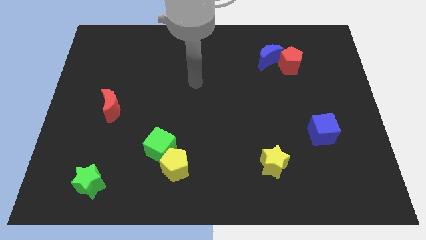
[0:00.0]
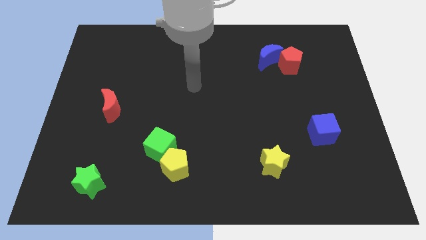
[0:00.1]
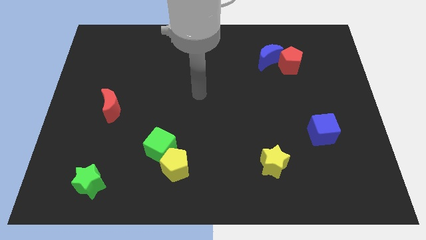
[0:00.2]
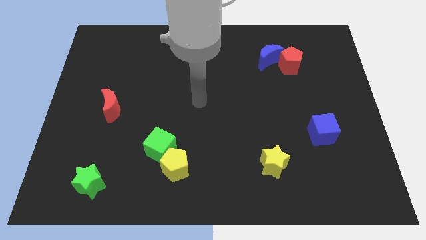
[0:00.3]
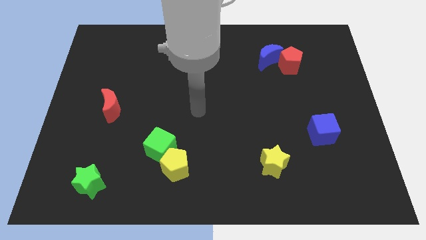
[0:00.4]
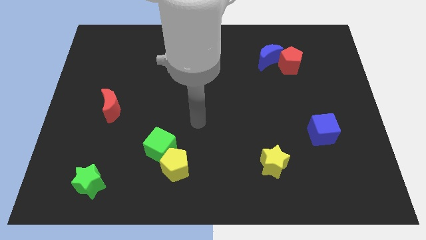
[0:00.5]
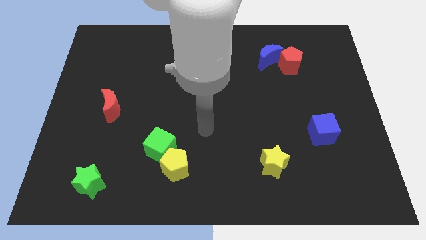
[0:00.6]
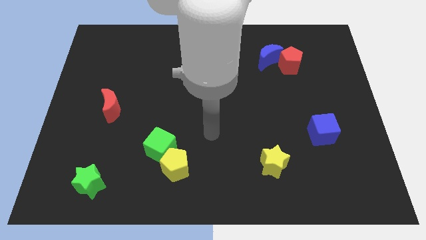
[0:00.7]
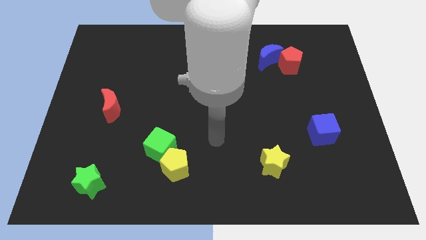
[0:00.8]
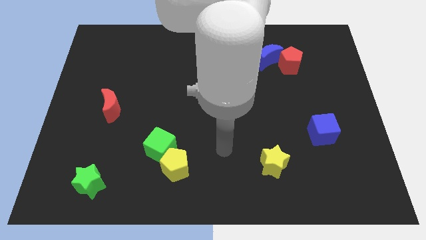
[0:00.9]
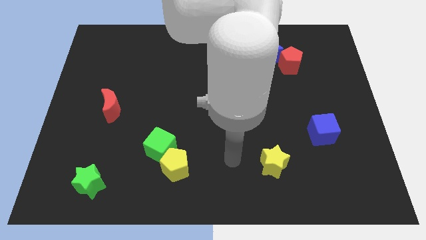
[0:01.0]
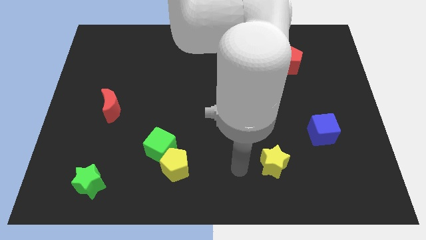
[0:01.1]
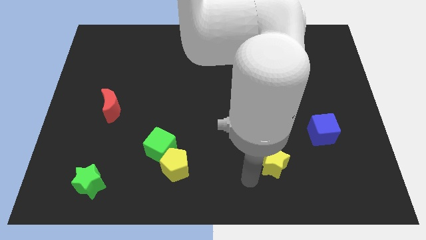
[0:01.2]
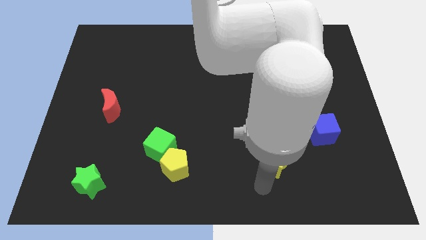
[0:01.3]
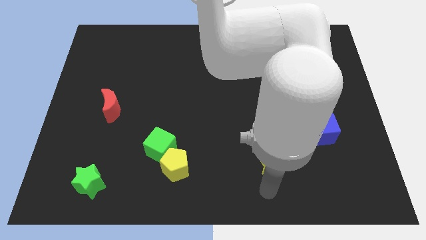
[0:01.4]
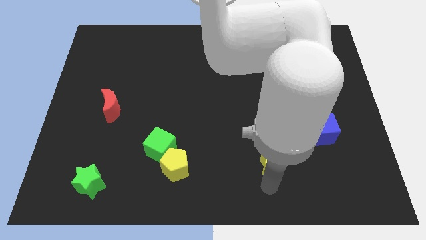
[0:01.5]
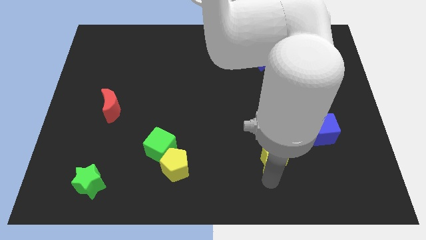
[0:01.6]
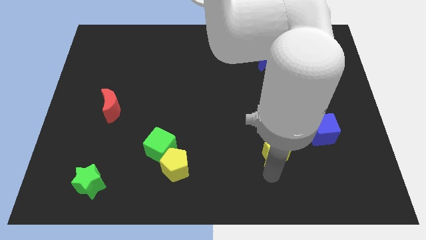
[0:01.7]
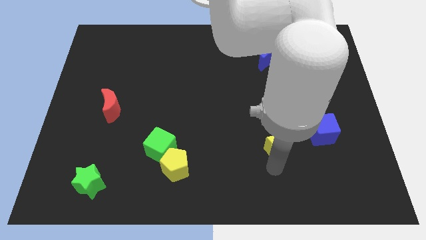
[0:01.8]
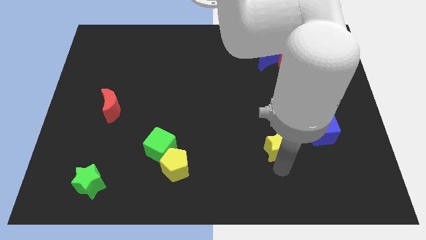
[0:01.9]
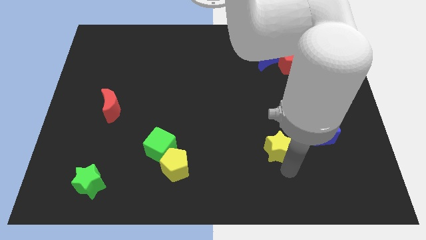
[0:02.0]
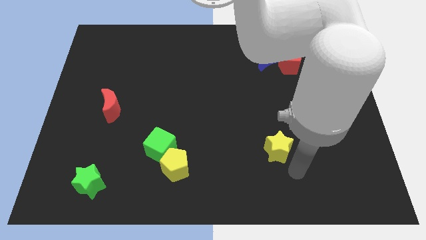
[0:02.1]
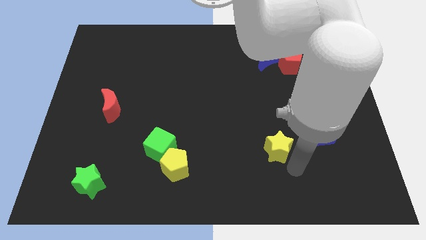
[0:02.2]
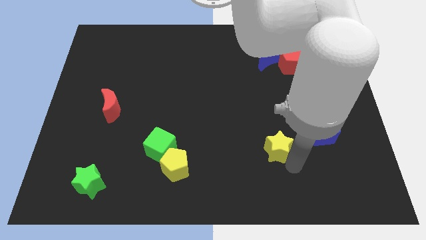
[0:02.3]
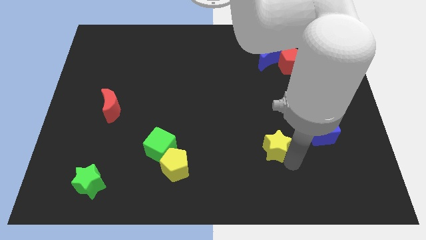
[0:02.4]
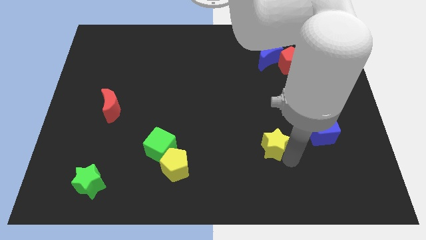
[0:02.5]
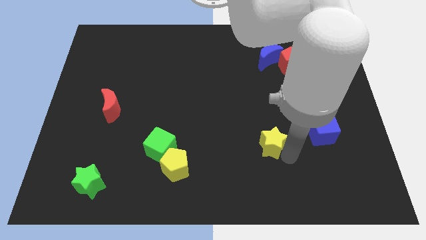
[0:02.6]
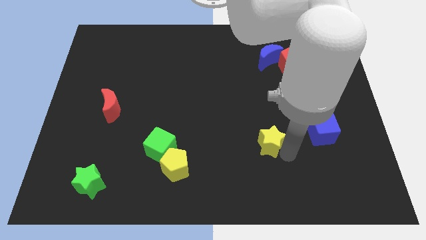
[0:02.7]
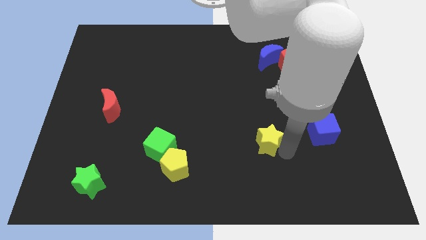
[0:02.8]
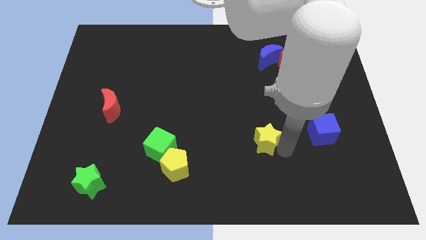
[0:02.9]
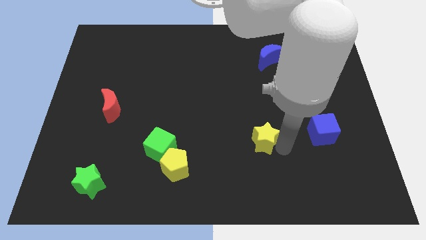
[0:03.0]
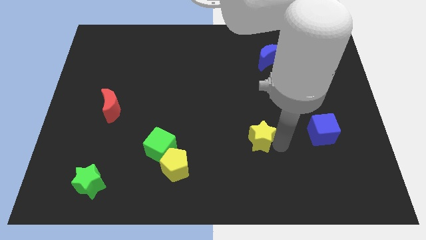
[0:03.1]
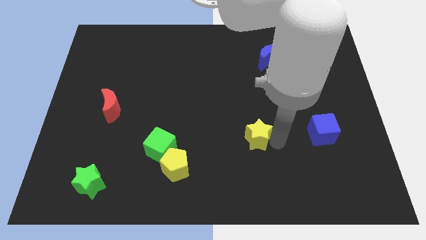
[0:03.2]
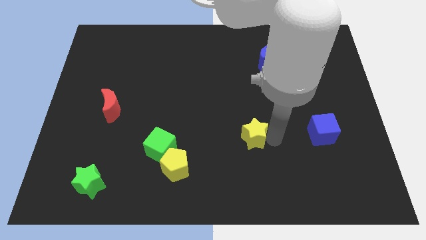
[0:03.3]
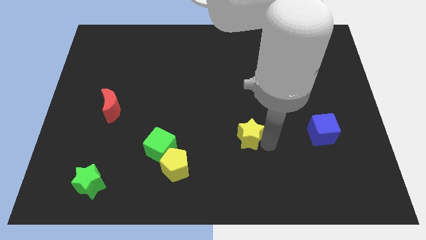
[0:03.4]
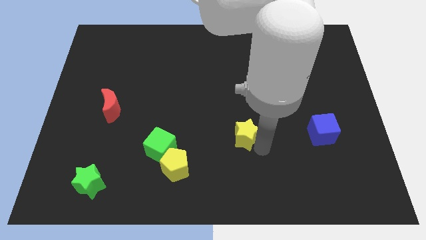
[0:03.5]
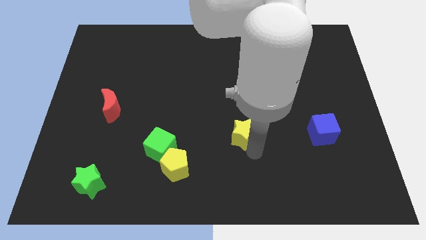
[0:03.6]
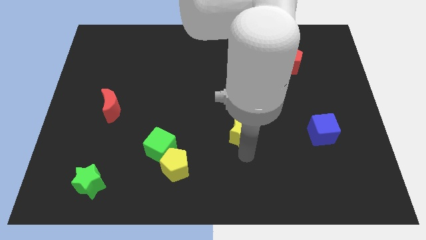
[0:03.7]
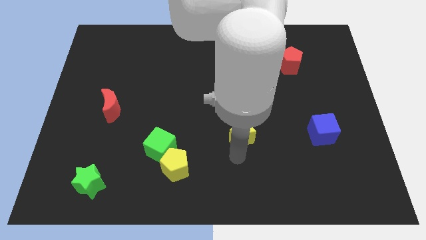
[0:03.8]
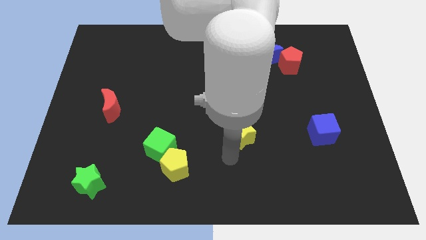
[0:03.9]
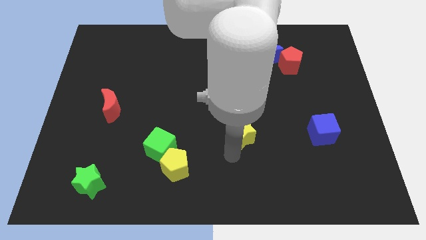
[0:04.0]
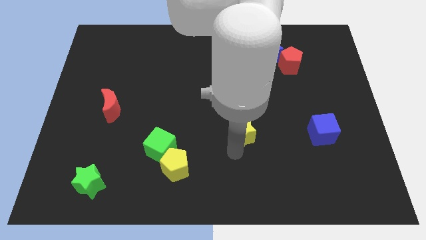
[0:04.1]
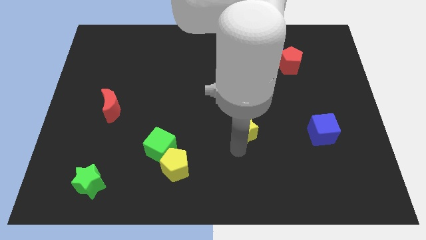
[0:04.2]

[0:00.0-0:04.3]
move the yellow star upwards somewhat

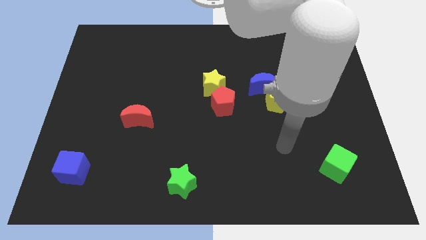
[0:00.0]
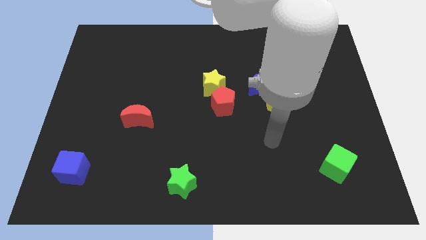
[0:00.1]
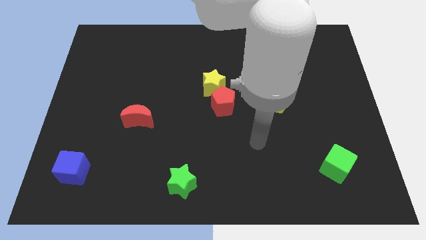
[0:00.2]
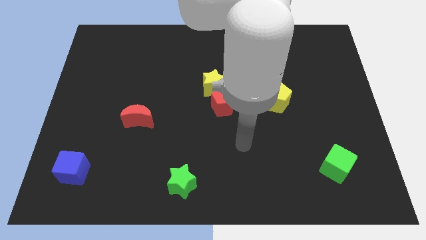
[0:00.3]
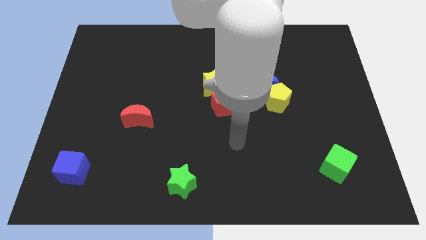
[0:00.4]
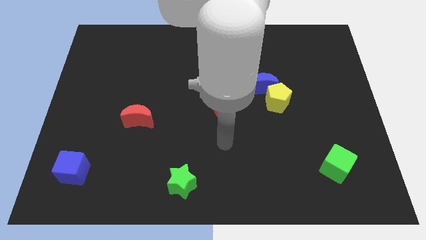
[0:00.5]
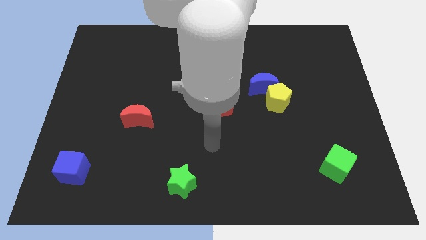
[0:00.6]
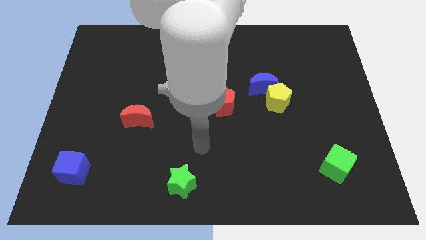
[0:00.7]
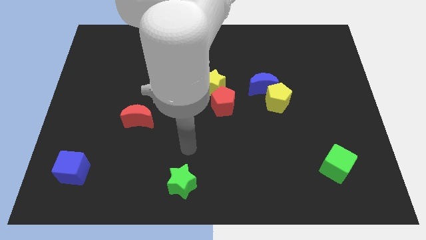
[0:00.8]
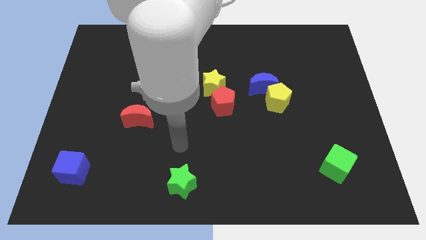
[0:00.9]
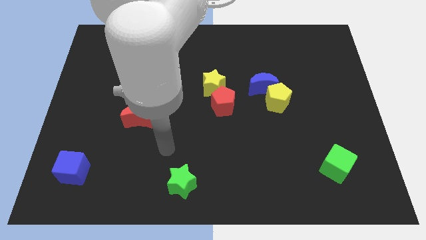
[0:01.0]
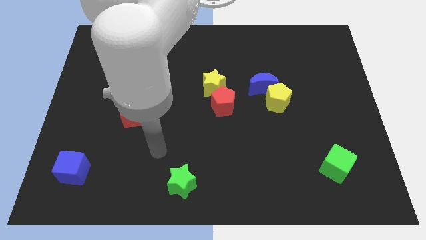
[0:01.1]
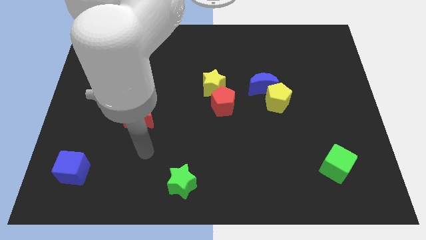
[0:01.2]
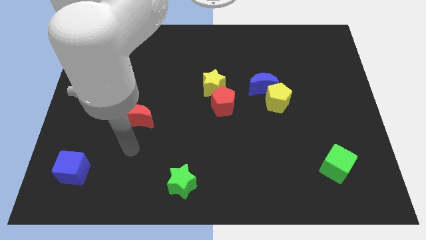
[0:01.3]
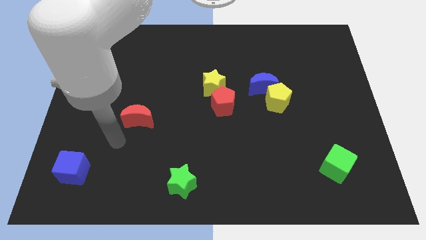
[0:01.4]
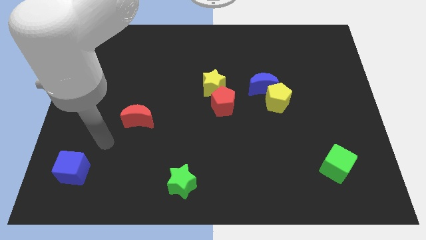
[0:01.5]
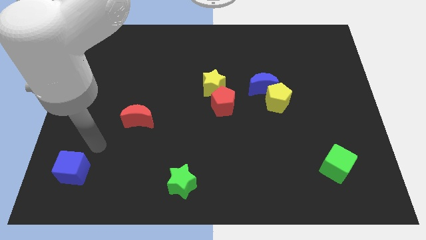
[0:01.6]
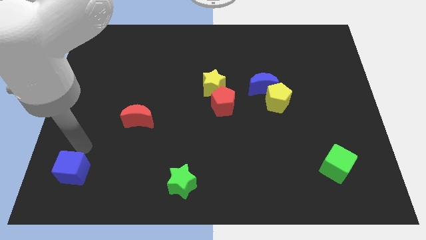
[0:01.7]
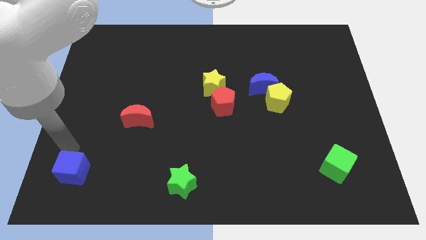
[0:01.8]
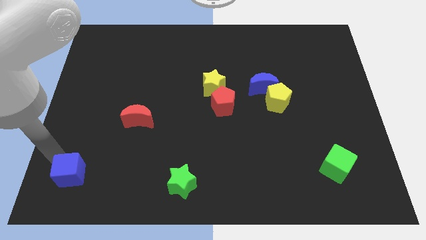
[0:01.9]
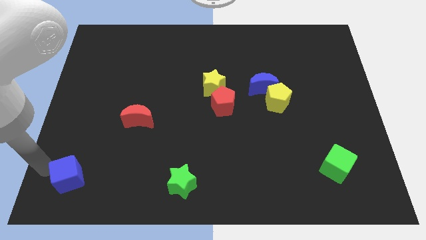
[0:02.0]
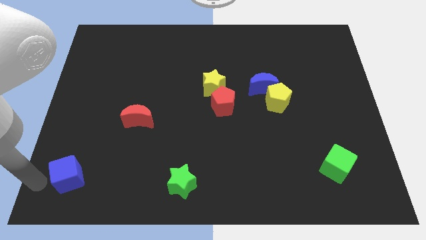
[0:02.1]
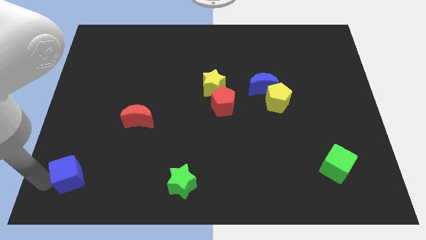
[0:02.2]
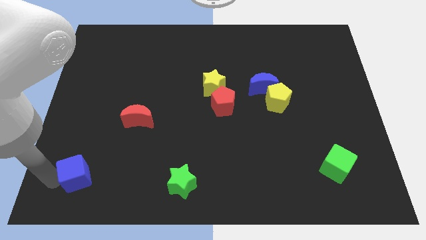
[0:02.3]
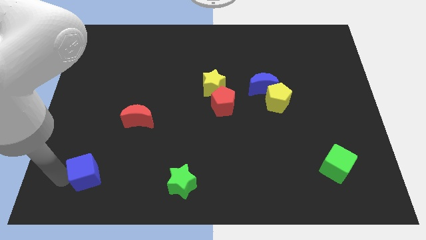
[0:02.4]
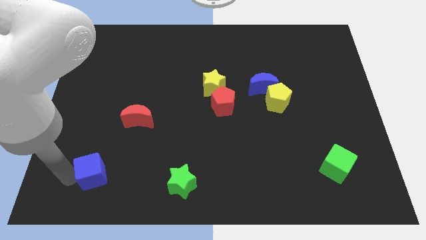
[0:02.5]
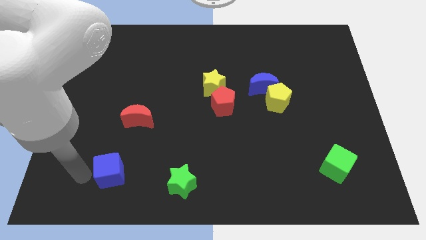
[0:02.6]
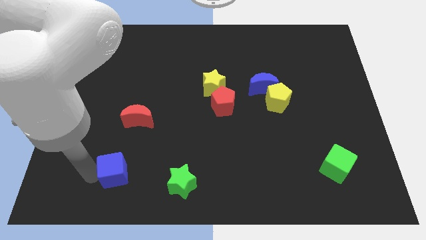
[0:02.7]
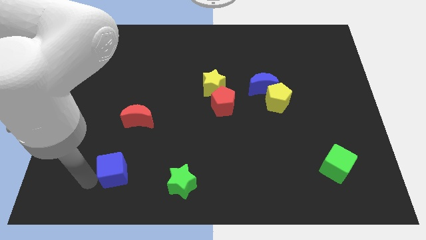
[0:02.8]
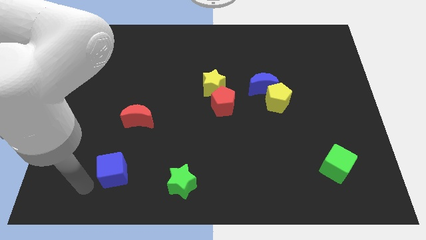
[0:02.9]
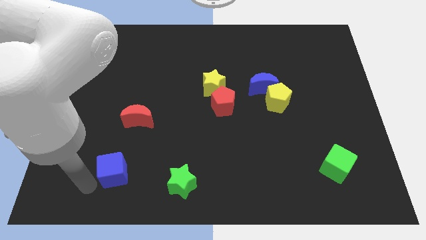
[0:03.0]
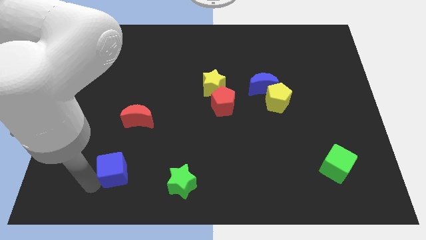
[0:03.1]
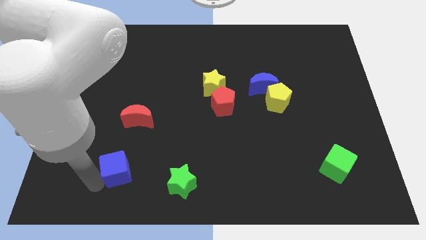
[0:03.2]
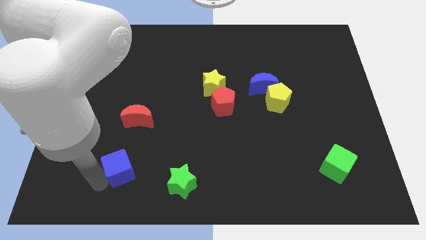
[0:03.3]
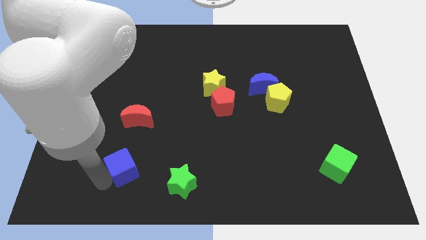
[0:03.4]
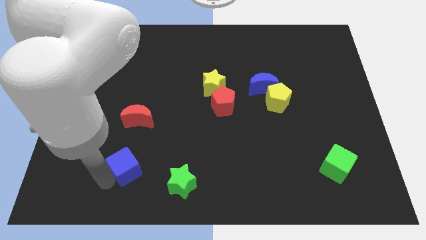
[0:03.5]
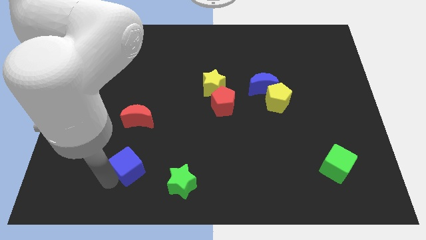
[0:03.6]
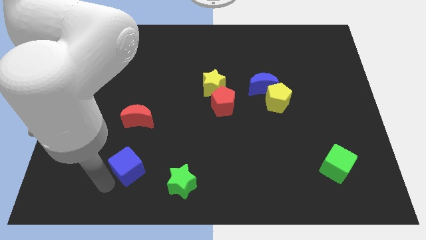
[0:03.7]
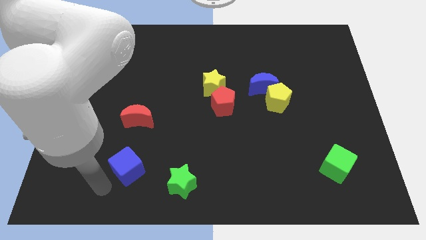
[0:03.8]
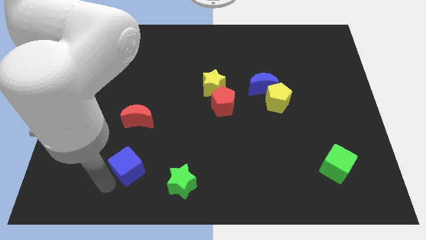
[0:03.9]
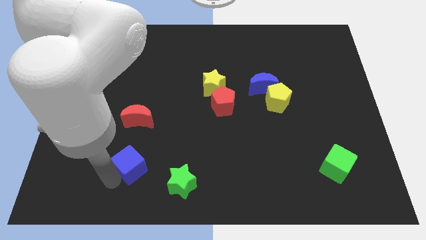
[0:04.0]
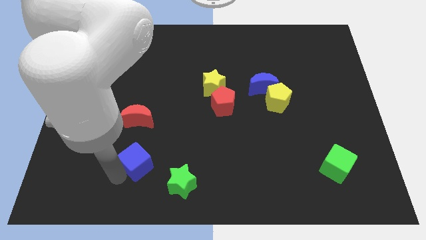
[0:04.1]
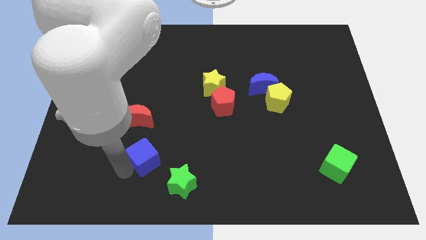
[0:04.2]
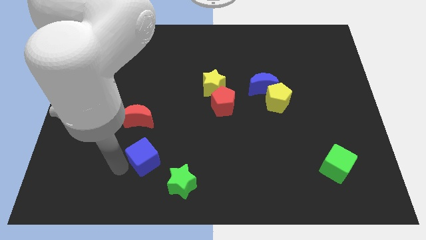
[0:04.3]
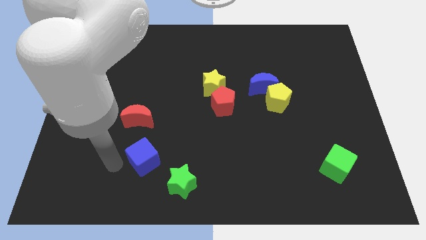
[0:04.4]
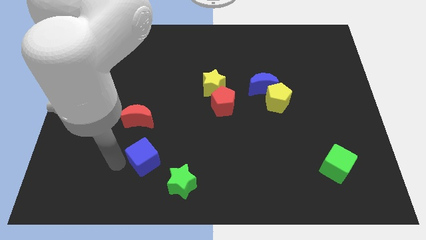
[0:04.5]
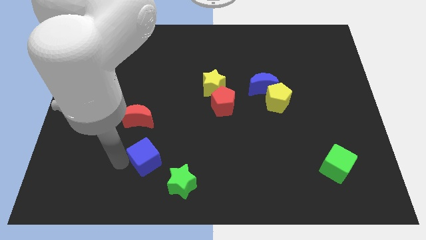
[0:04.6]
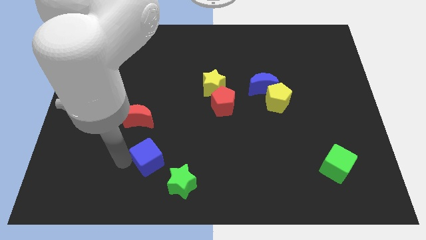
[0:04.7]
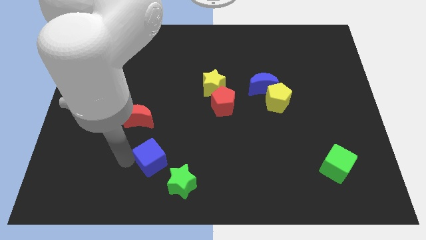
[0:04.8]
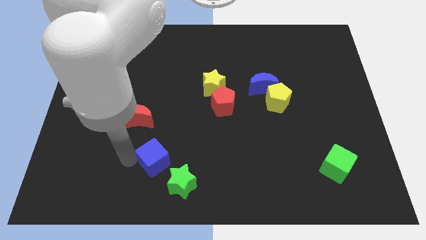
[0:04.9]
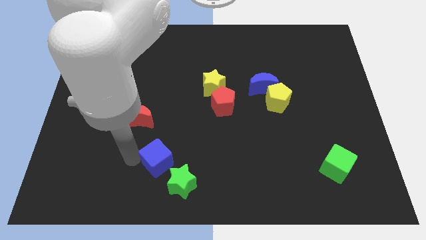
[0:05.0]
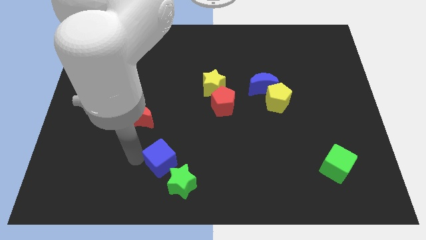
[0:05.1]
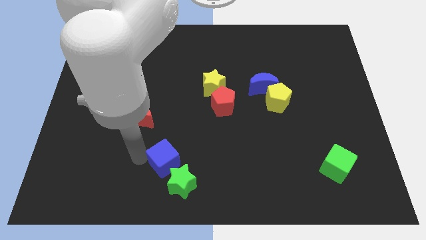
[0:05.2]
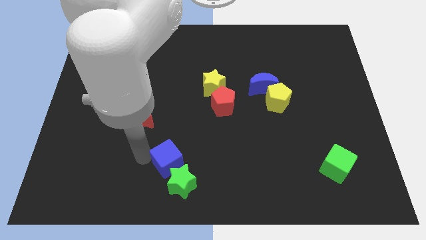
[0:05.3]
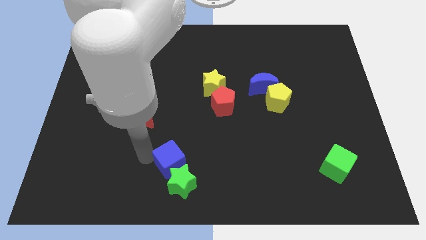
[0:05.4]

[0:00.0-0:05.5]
move the blue cube to the right
